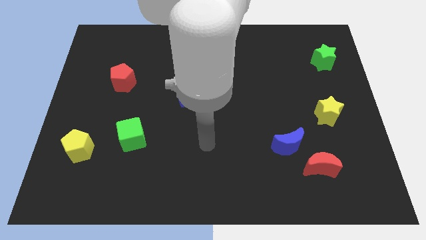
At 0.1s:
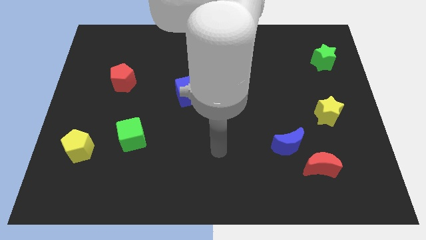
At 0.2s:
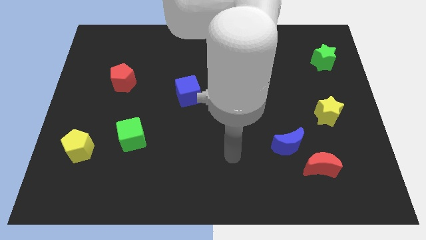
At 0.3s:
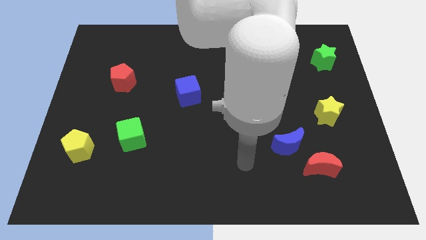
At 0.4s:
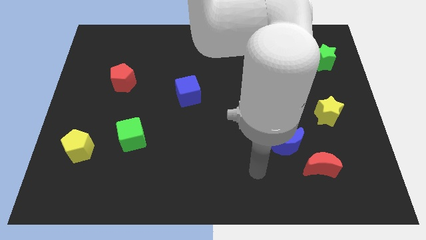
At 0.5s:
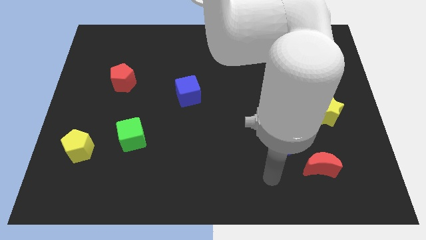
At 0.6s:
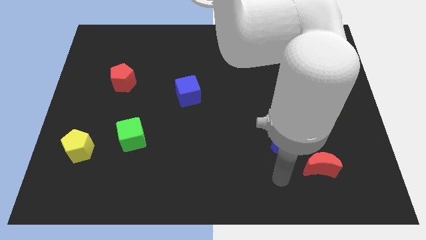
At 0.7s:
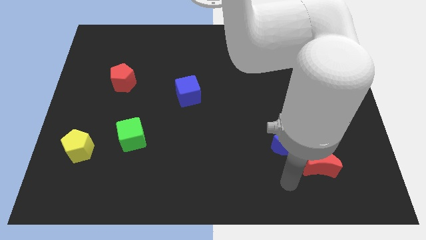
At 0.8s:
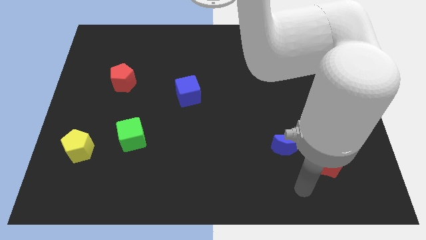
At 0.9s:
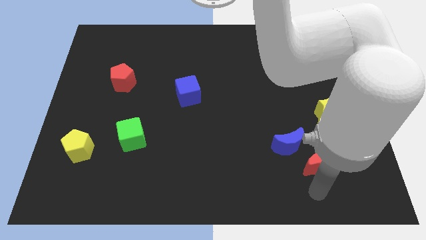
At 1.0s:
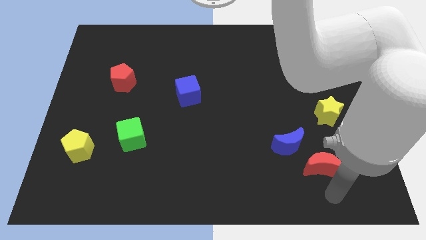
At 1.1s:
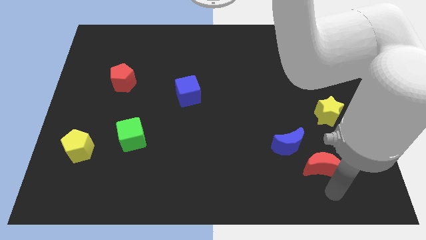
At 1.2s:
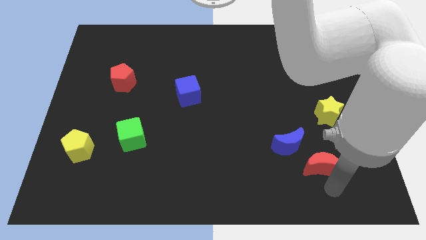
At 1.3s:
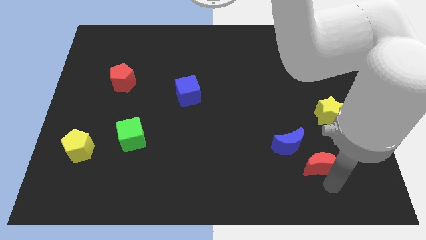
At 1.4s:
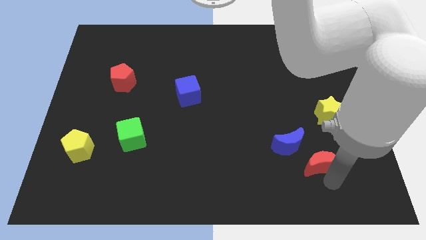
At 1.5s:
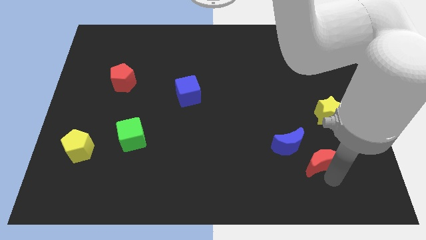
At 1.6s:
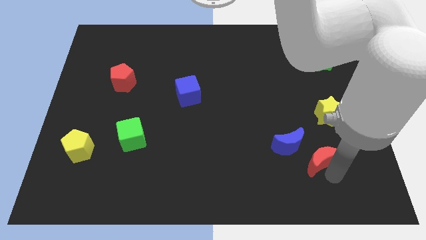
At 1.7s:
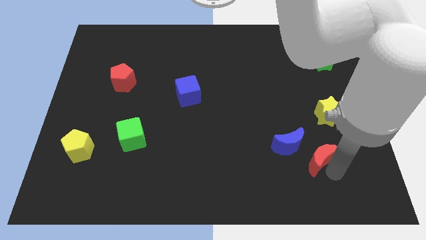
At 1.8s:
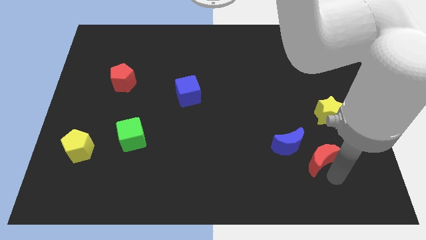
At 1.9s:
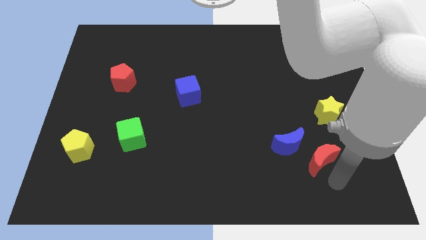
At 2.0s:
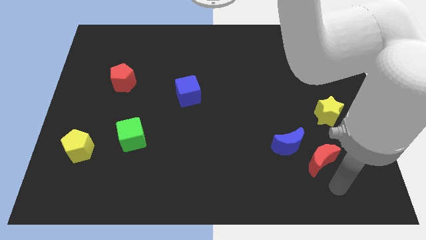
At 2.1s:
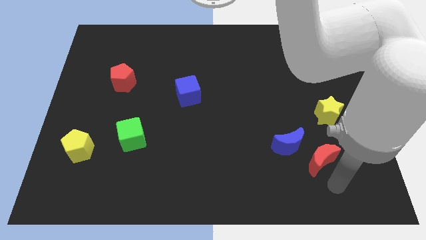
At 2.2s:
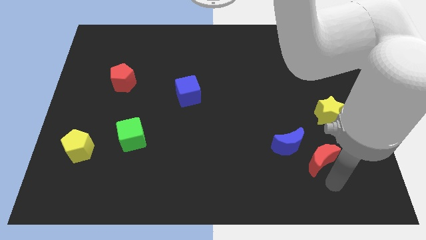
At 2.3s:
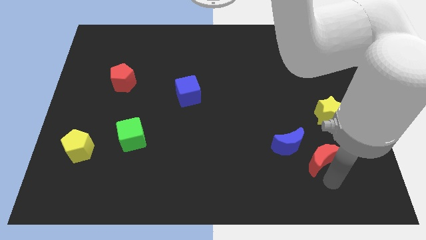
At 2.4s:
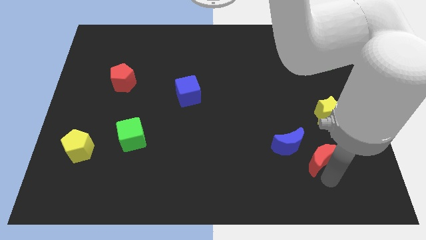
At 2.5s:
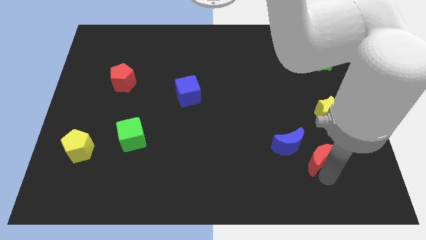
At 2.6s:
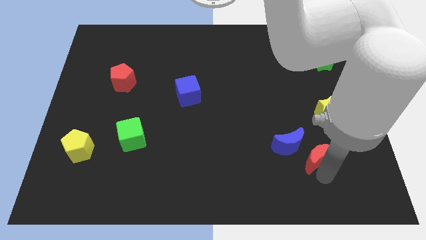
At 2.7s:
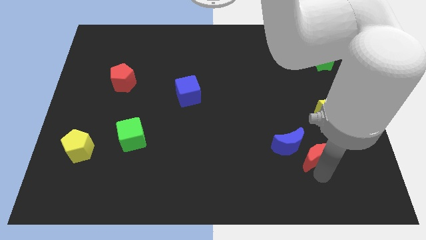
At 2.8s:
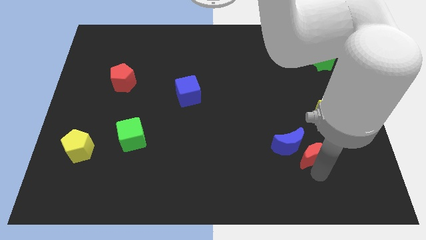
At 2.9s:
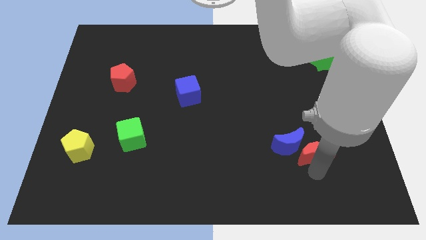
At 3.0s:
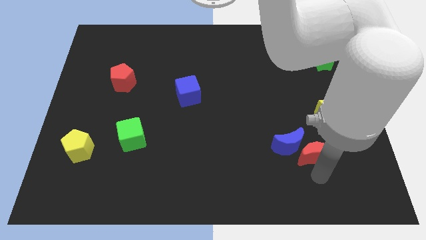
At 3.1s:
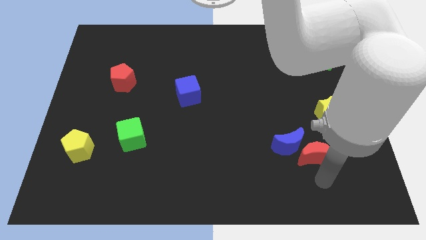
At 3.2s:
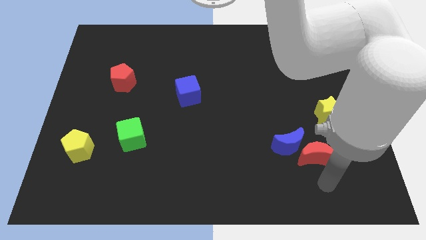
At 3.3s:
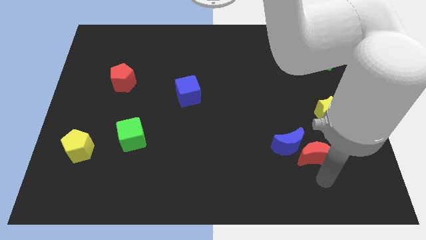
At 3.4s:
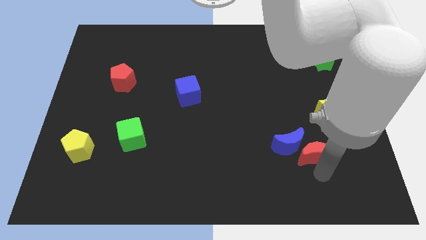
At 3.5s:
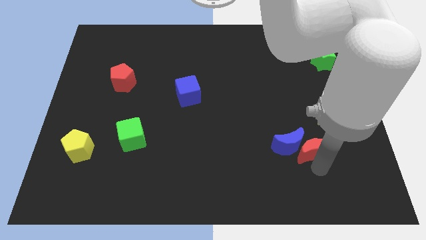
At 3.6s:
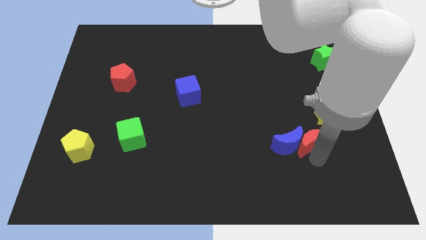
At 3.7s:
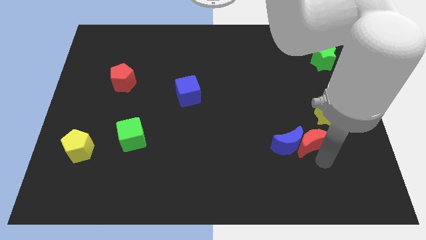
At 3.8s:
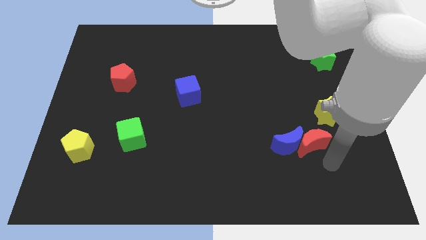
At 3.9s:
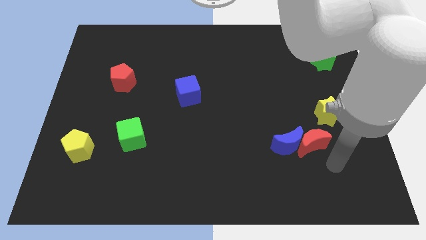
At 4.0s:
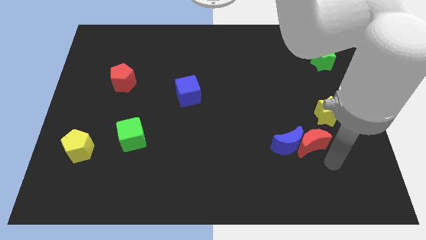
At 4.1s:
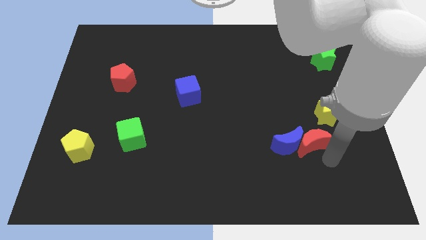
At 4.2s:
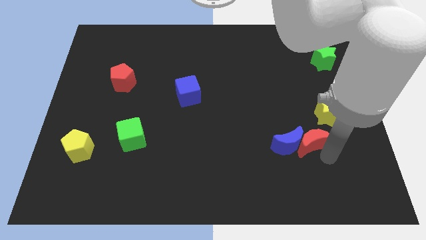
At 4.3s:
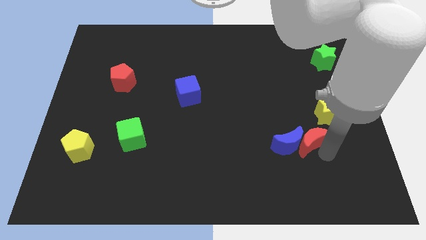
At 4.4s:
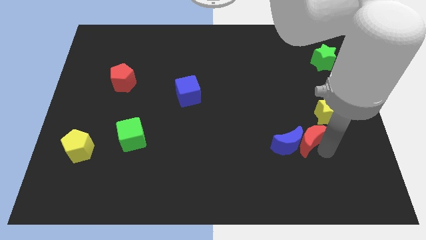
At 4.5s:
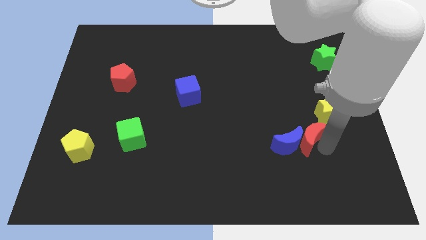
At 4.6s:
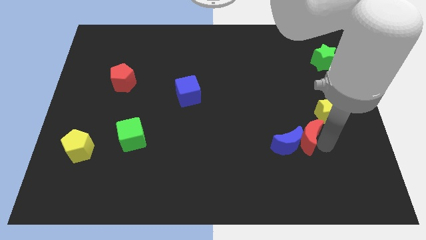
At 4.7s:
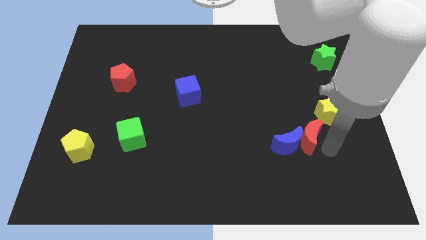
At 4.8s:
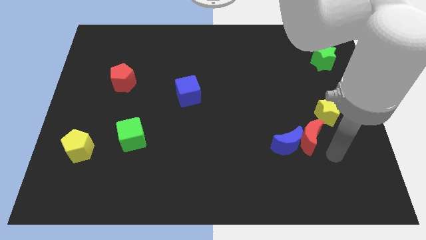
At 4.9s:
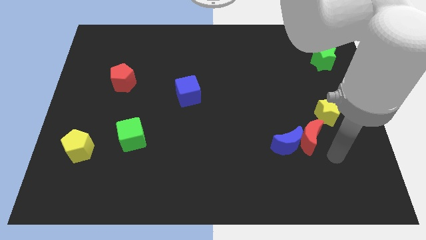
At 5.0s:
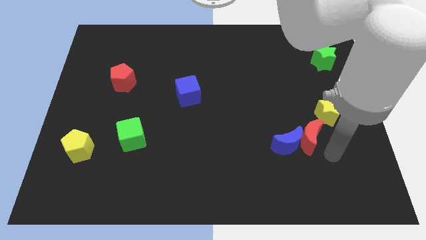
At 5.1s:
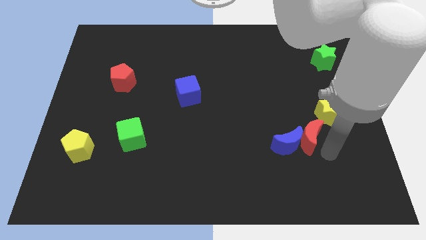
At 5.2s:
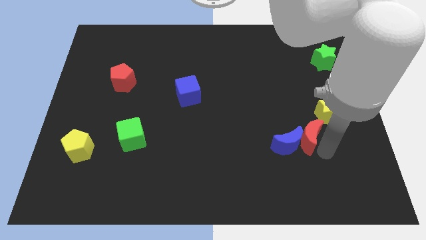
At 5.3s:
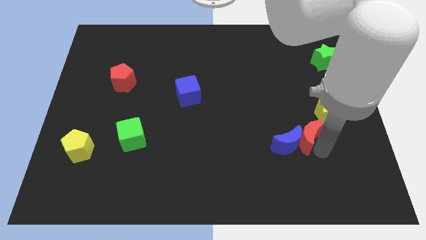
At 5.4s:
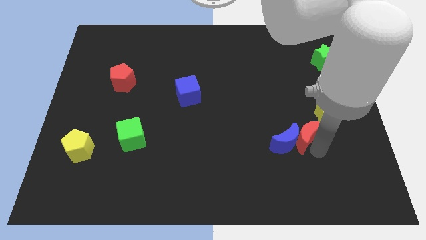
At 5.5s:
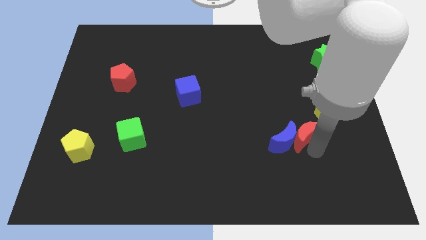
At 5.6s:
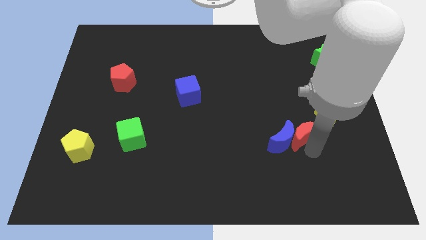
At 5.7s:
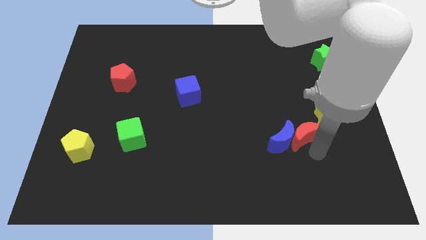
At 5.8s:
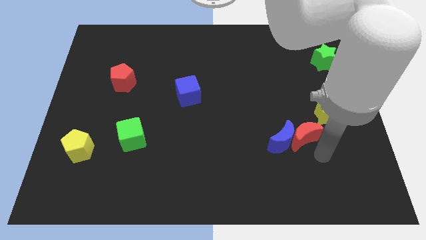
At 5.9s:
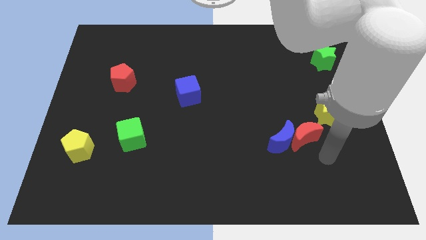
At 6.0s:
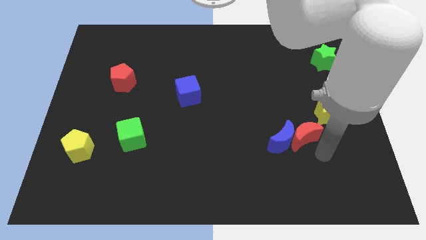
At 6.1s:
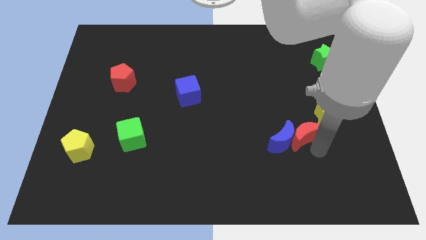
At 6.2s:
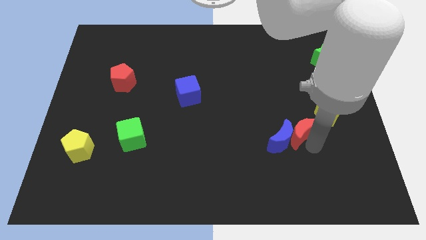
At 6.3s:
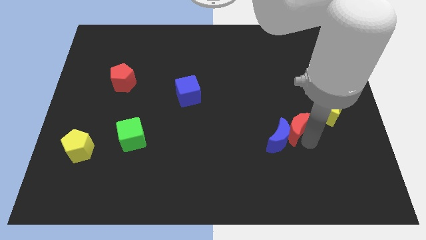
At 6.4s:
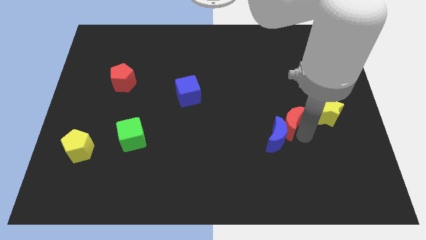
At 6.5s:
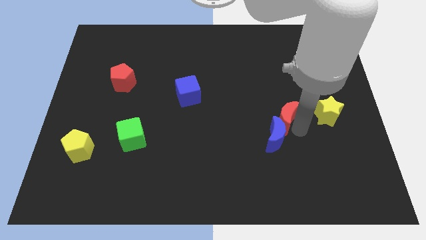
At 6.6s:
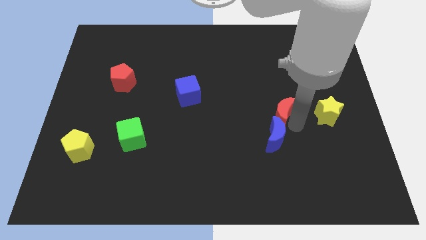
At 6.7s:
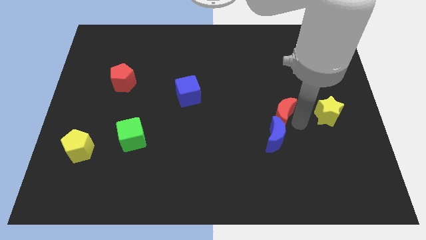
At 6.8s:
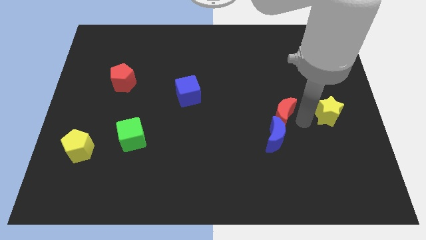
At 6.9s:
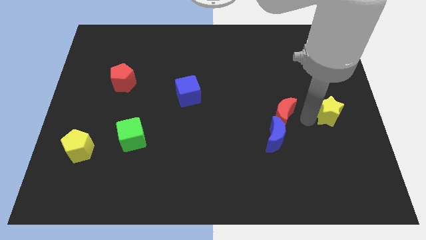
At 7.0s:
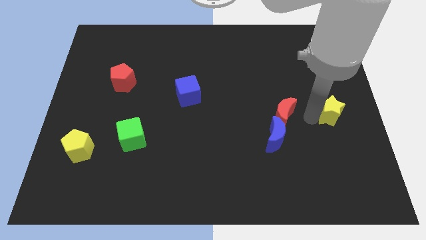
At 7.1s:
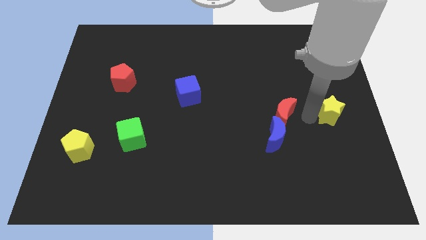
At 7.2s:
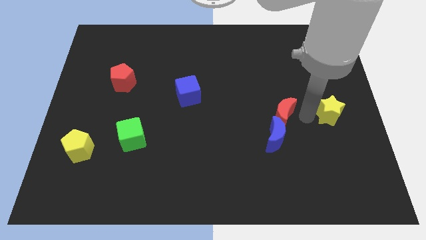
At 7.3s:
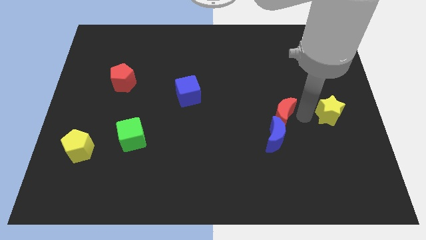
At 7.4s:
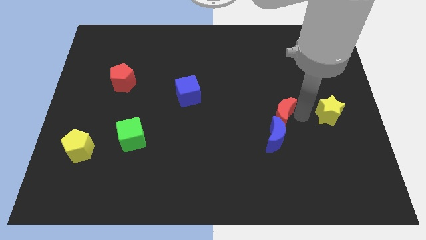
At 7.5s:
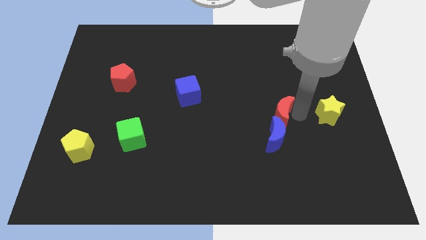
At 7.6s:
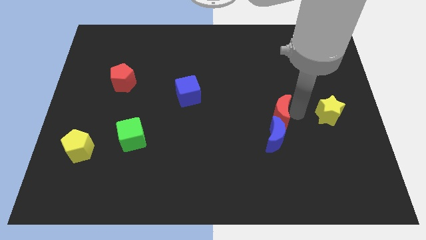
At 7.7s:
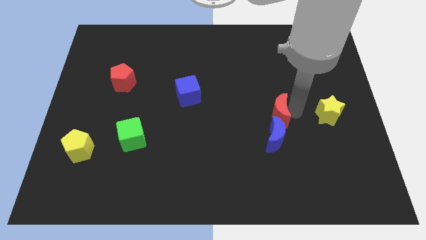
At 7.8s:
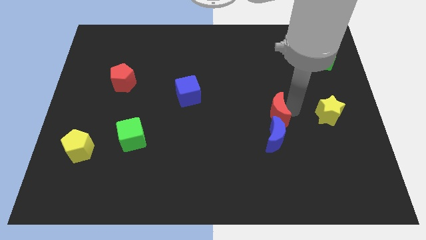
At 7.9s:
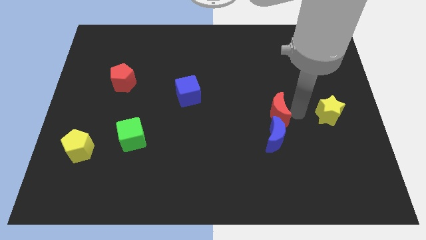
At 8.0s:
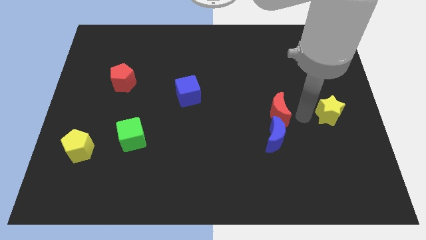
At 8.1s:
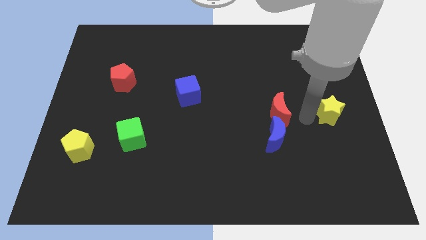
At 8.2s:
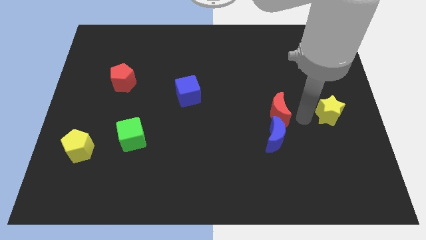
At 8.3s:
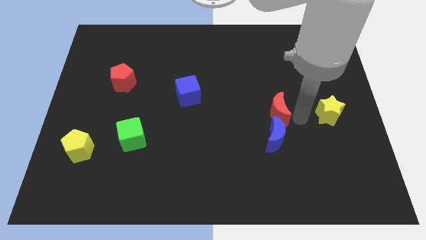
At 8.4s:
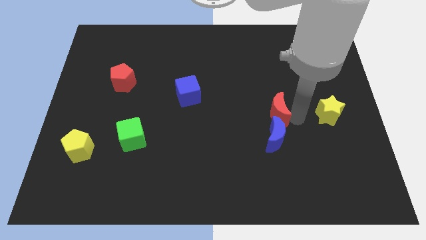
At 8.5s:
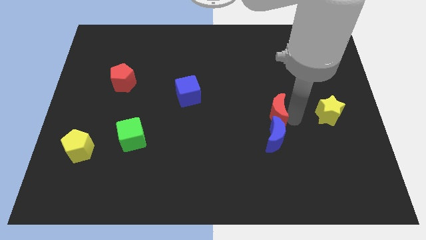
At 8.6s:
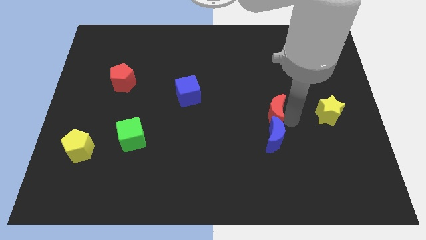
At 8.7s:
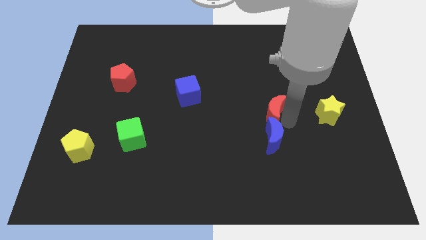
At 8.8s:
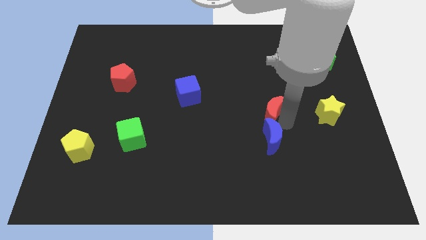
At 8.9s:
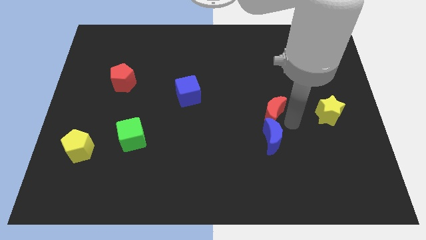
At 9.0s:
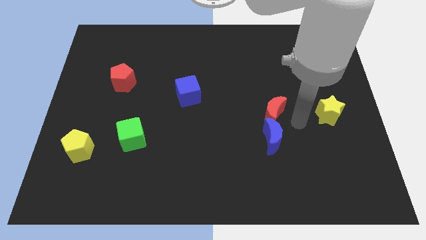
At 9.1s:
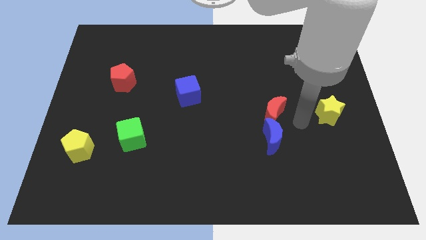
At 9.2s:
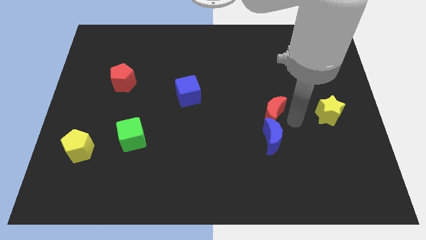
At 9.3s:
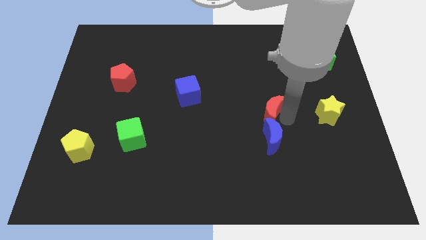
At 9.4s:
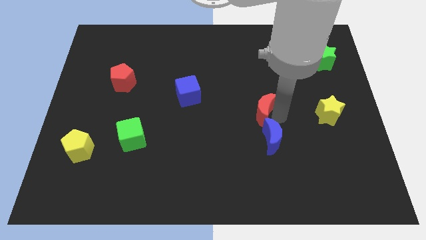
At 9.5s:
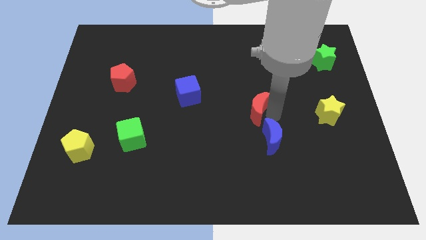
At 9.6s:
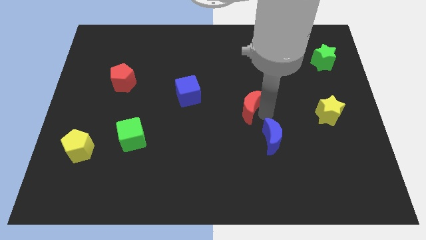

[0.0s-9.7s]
push the red moon upwards and to the left diagonally
